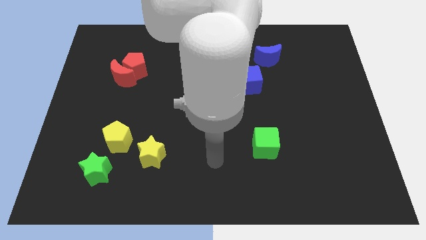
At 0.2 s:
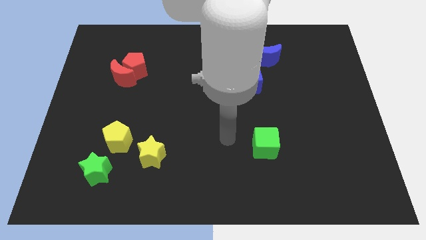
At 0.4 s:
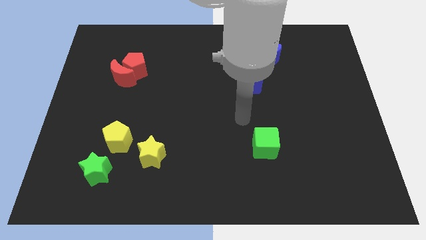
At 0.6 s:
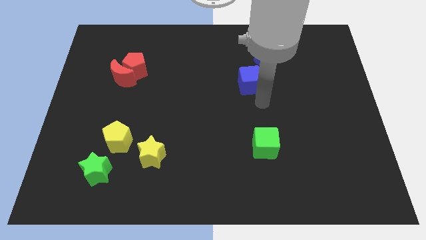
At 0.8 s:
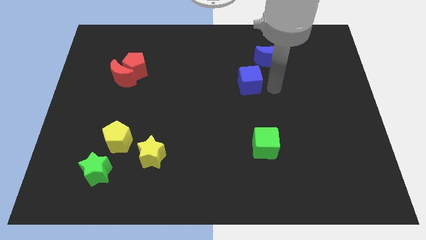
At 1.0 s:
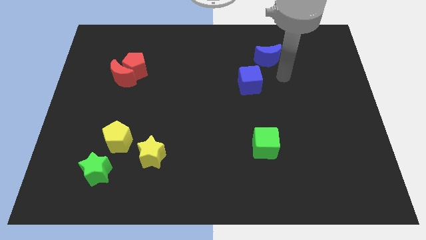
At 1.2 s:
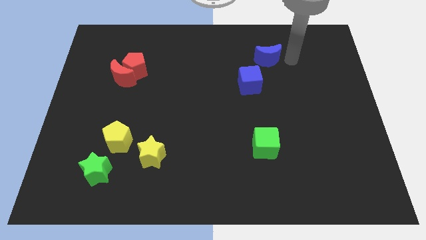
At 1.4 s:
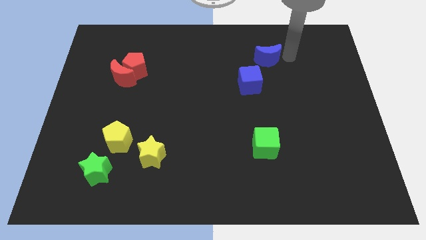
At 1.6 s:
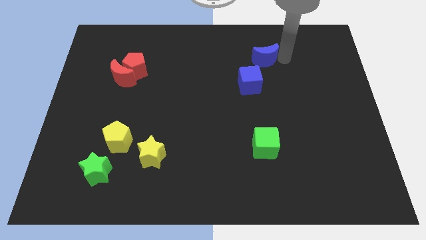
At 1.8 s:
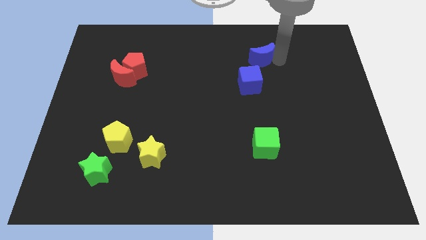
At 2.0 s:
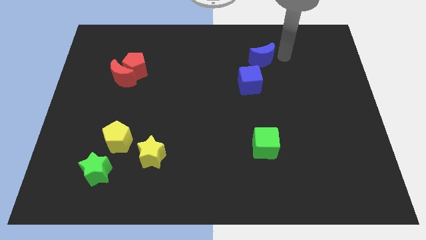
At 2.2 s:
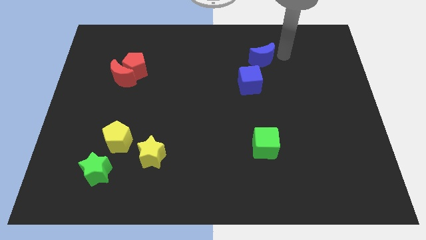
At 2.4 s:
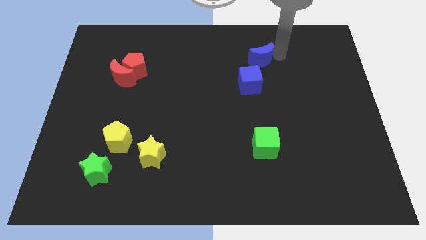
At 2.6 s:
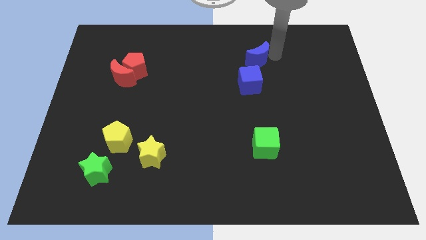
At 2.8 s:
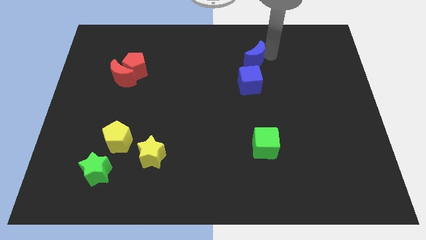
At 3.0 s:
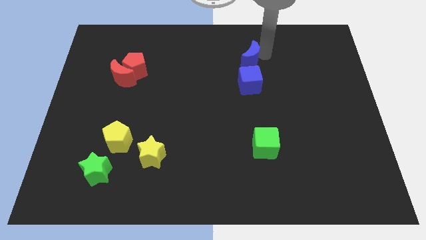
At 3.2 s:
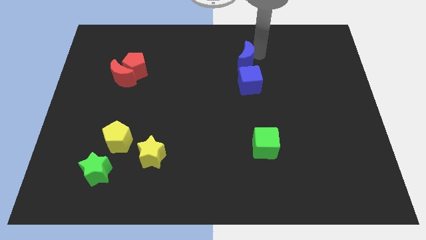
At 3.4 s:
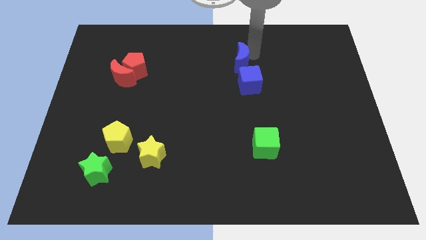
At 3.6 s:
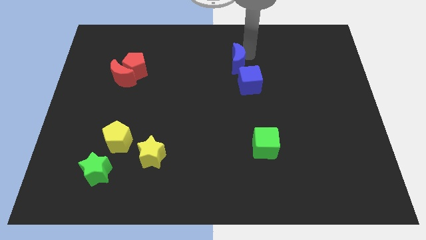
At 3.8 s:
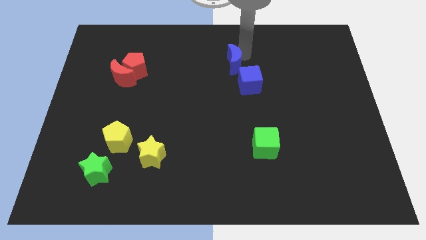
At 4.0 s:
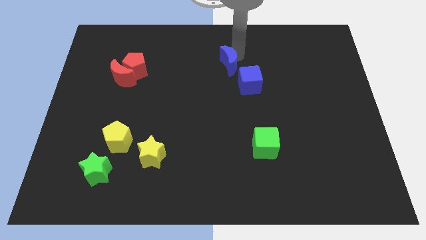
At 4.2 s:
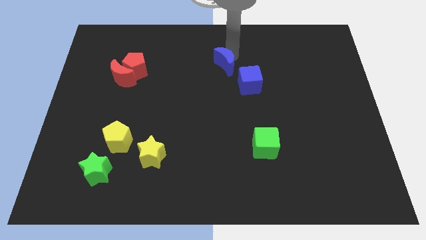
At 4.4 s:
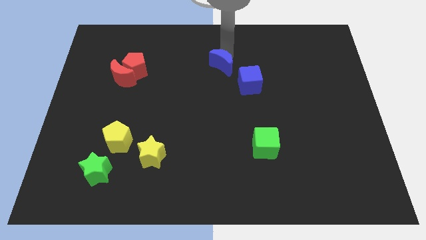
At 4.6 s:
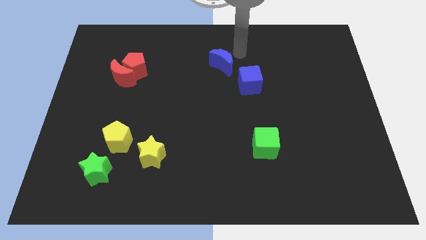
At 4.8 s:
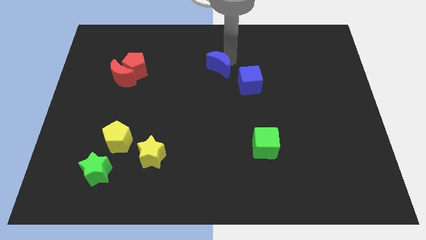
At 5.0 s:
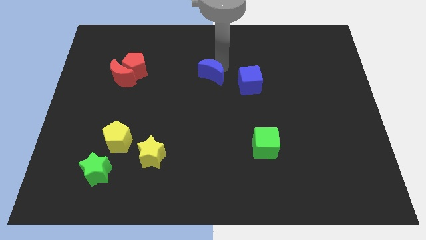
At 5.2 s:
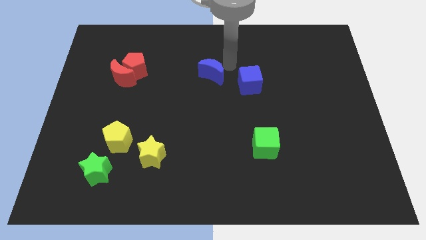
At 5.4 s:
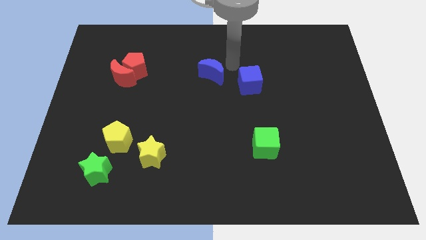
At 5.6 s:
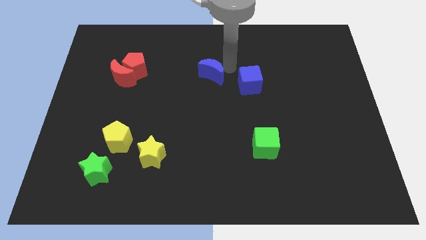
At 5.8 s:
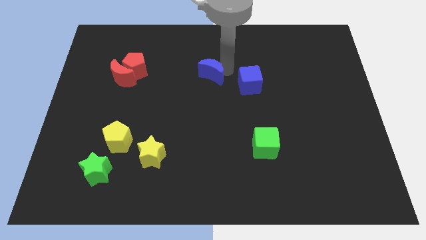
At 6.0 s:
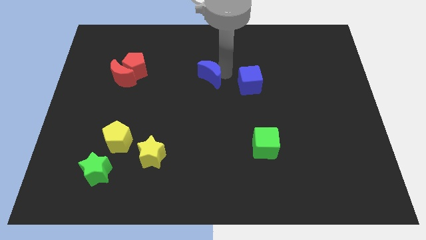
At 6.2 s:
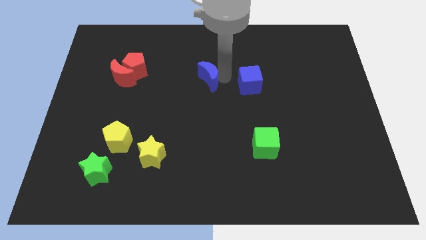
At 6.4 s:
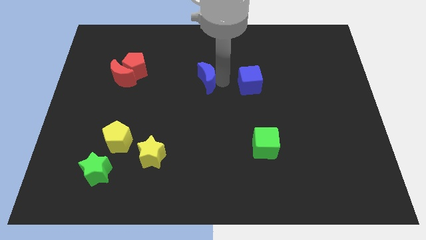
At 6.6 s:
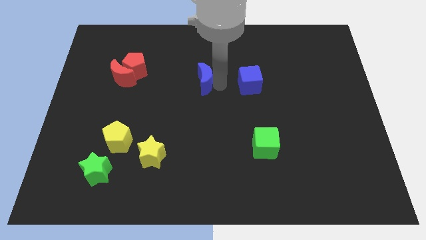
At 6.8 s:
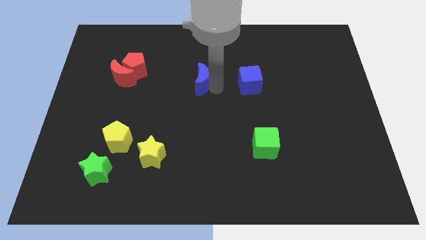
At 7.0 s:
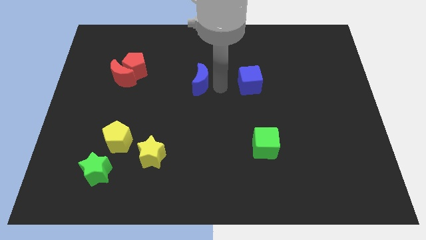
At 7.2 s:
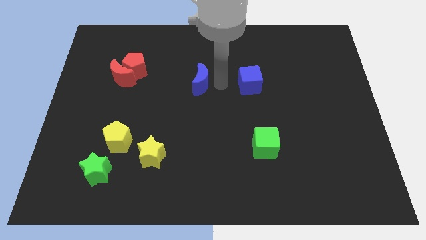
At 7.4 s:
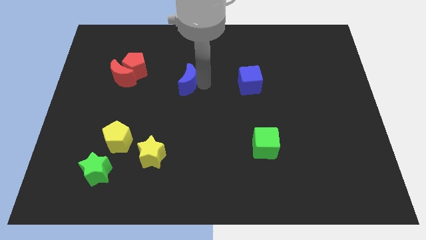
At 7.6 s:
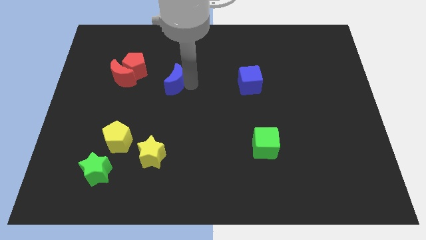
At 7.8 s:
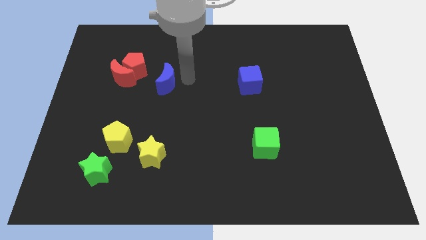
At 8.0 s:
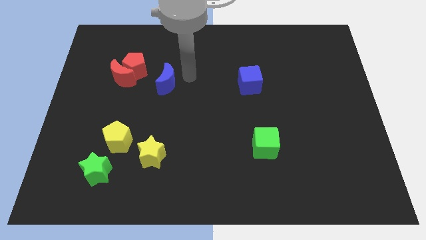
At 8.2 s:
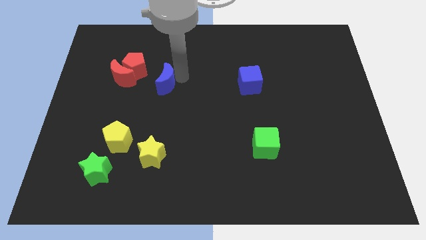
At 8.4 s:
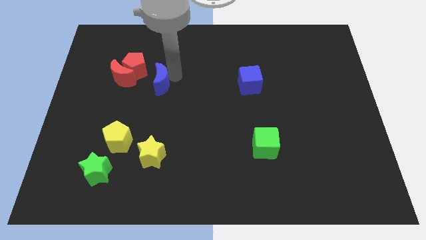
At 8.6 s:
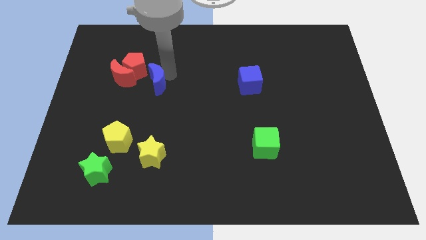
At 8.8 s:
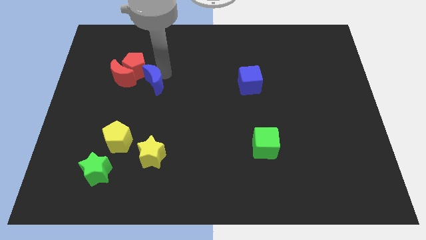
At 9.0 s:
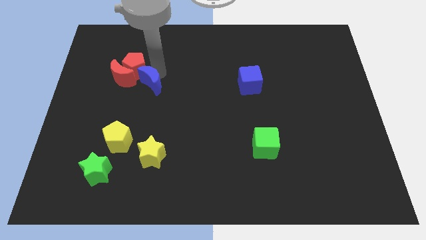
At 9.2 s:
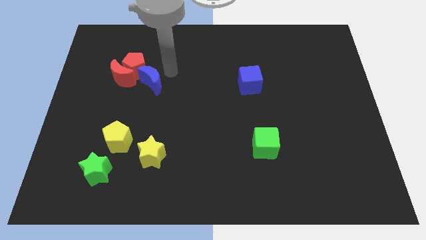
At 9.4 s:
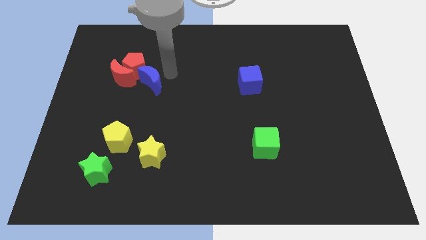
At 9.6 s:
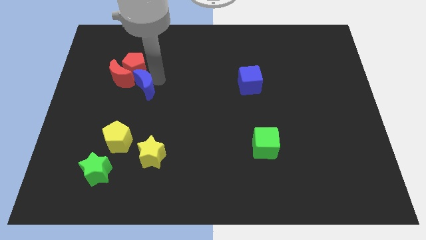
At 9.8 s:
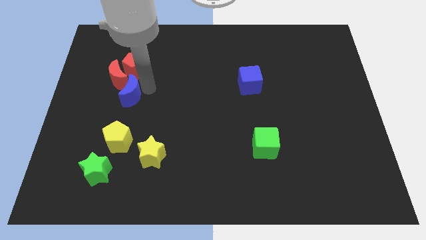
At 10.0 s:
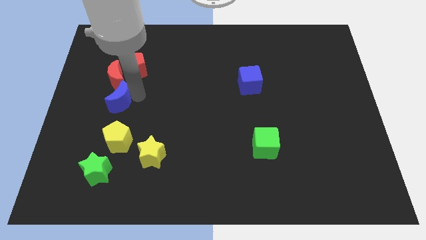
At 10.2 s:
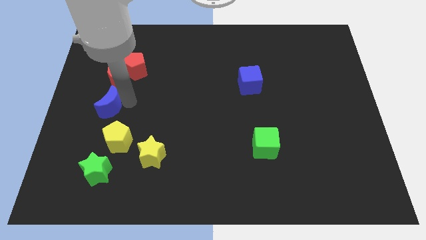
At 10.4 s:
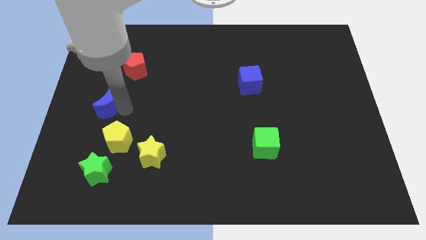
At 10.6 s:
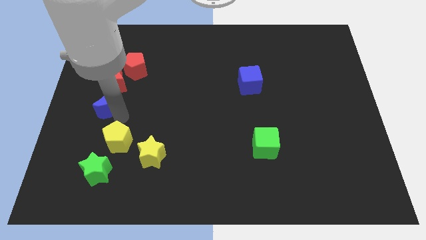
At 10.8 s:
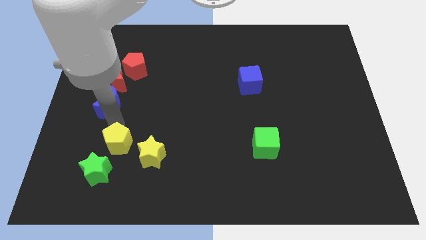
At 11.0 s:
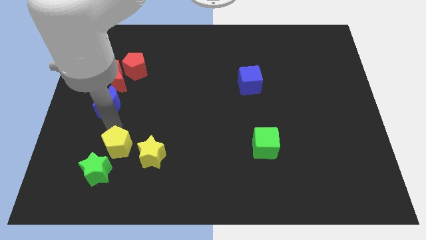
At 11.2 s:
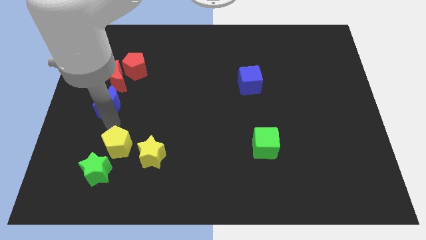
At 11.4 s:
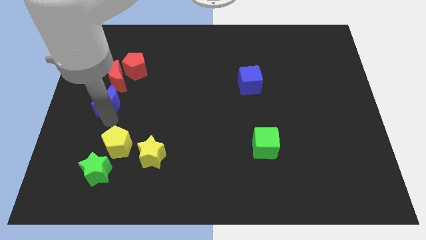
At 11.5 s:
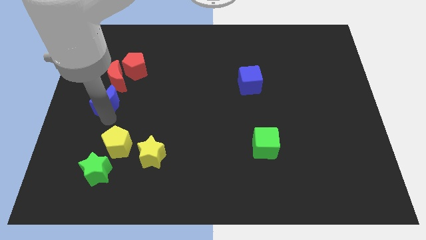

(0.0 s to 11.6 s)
move the blue moon to the left side

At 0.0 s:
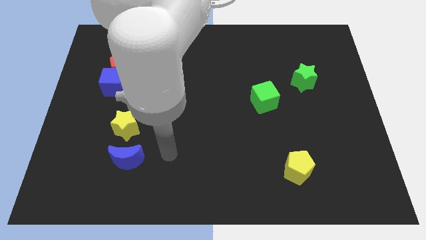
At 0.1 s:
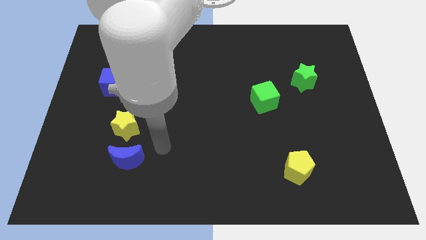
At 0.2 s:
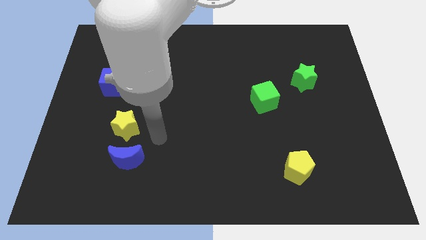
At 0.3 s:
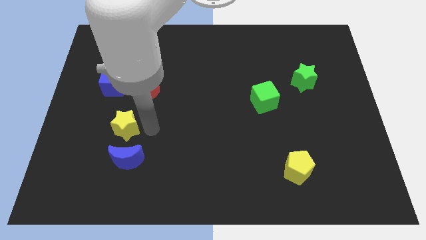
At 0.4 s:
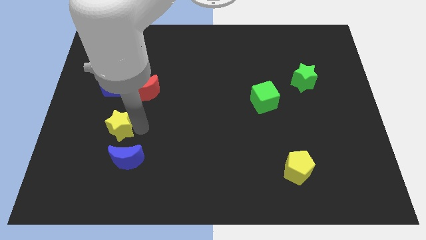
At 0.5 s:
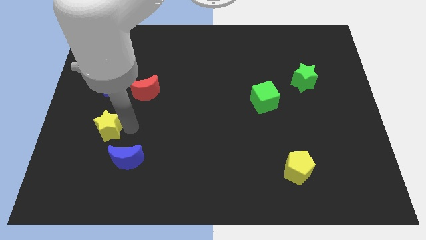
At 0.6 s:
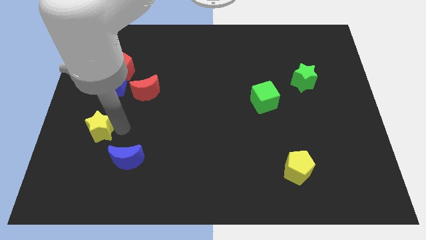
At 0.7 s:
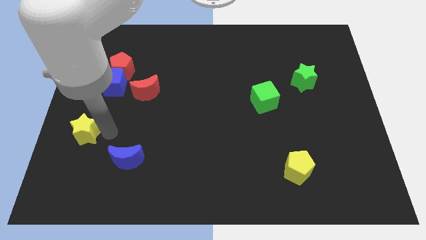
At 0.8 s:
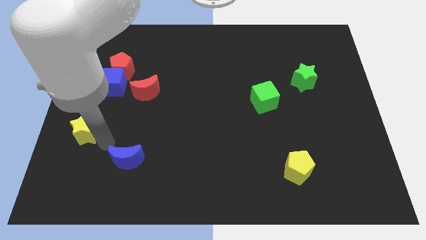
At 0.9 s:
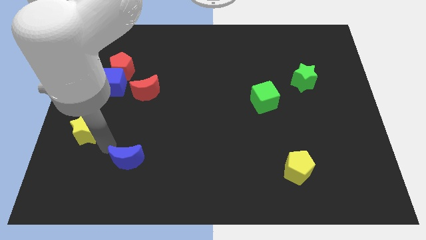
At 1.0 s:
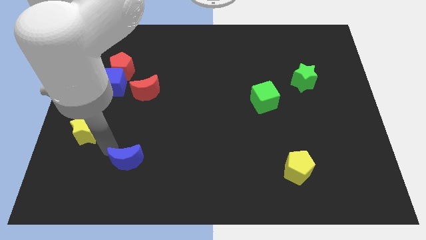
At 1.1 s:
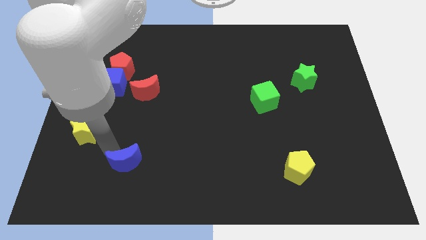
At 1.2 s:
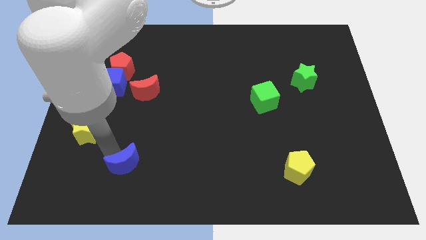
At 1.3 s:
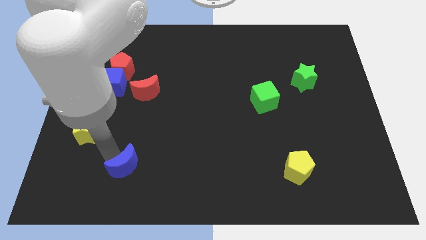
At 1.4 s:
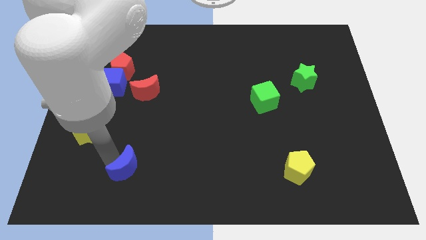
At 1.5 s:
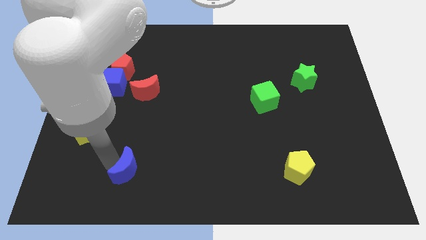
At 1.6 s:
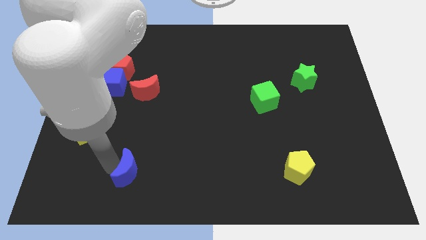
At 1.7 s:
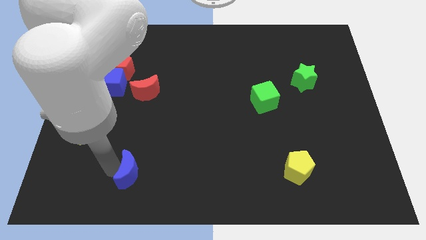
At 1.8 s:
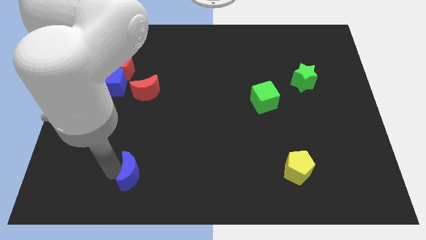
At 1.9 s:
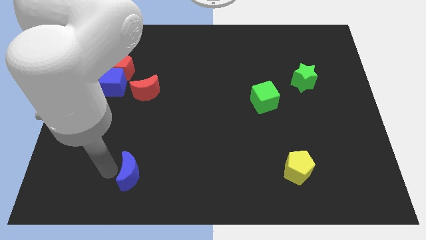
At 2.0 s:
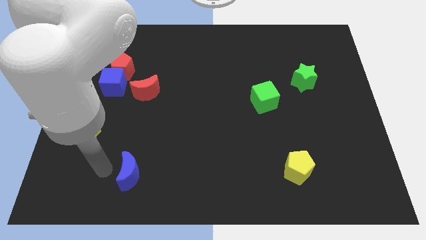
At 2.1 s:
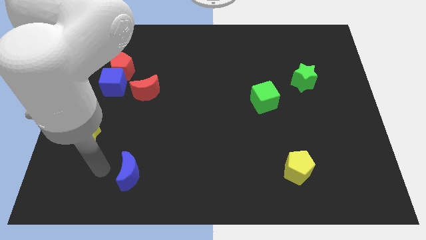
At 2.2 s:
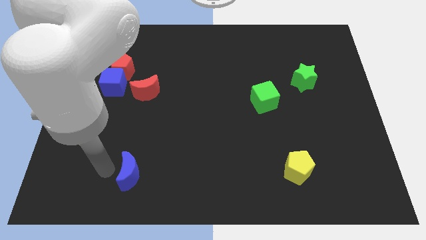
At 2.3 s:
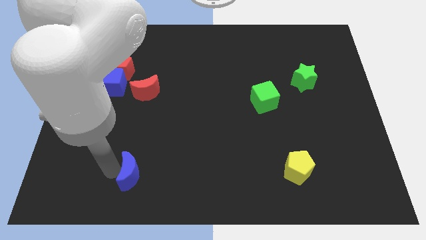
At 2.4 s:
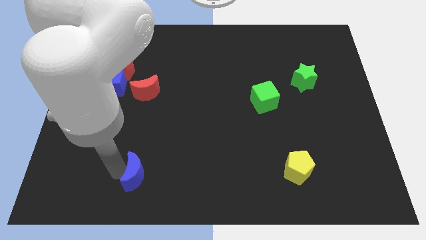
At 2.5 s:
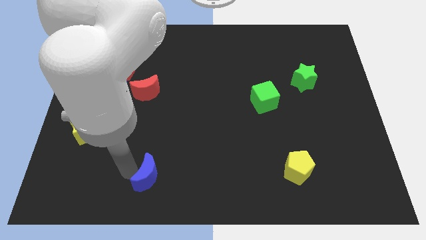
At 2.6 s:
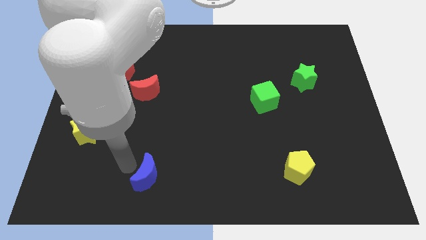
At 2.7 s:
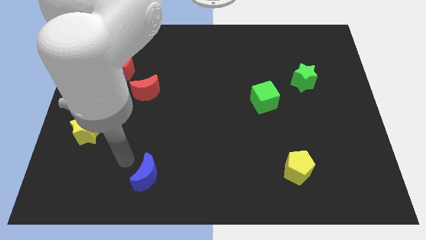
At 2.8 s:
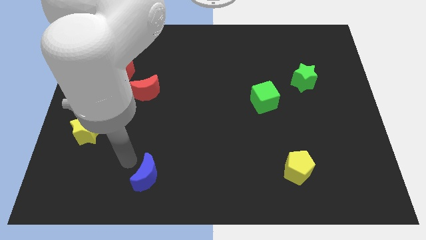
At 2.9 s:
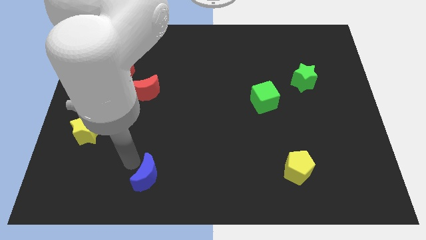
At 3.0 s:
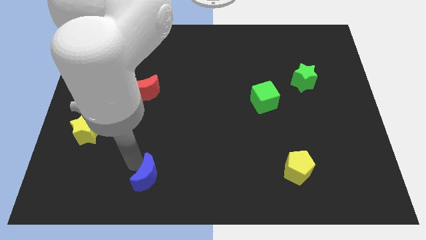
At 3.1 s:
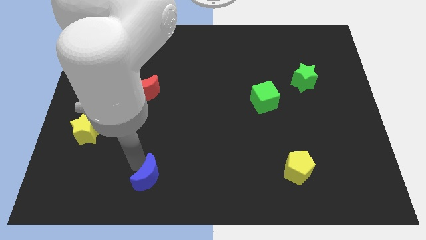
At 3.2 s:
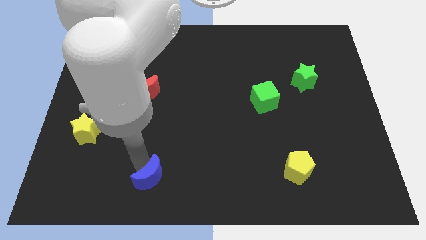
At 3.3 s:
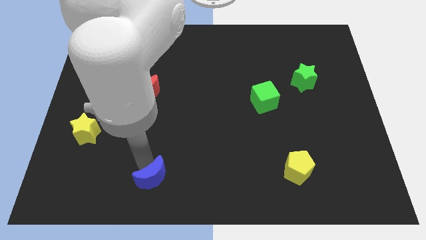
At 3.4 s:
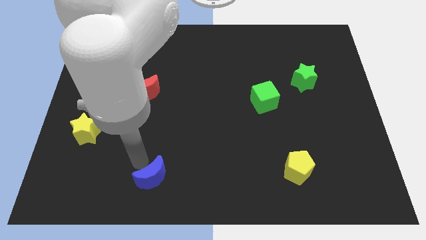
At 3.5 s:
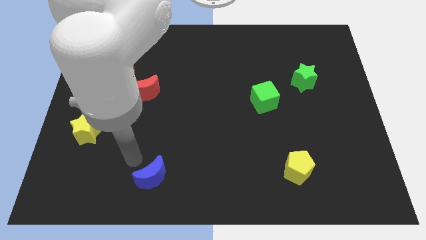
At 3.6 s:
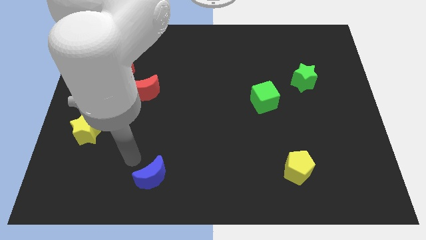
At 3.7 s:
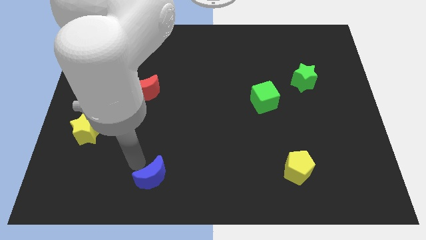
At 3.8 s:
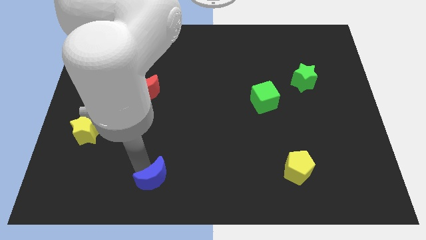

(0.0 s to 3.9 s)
slide the blue moon to the bottom
